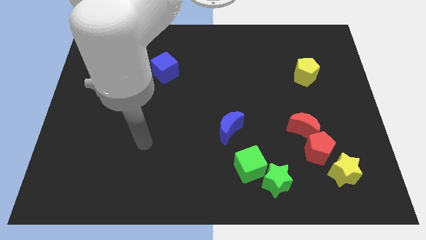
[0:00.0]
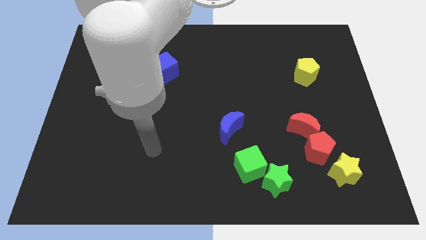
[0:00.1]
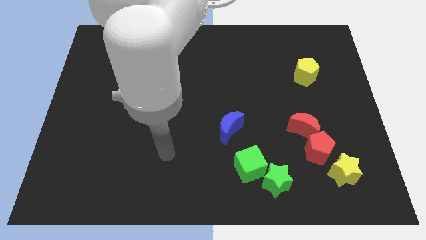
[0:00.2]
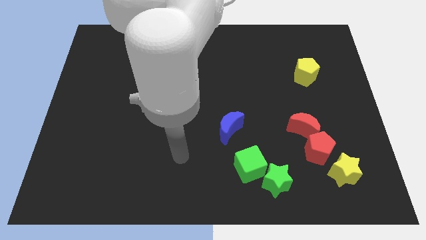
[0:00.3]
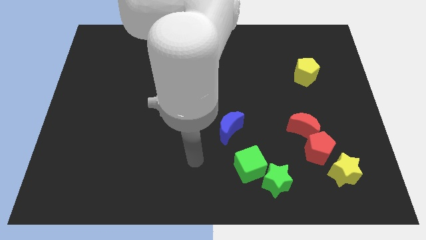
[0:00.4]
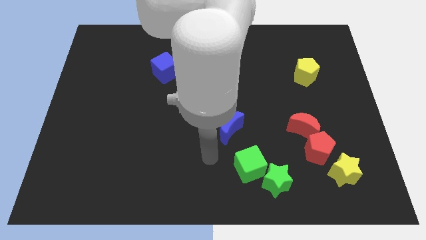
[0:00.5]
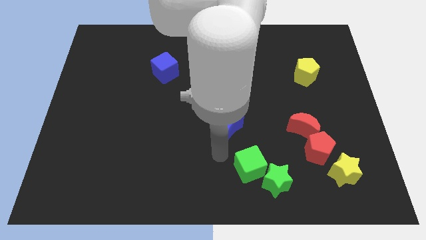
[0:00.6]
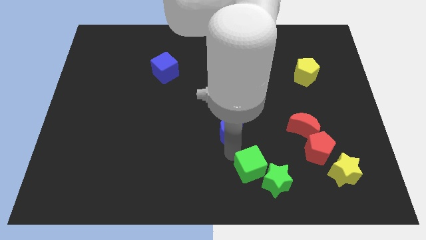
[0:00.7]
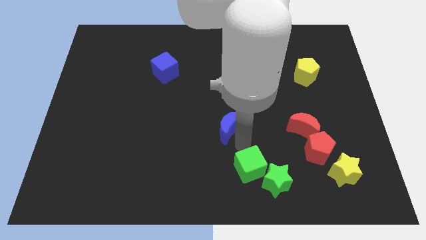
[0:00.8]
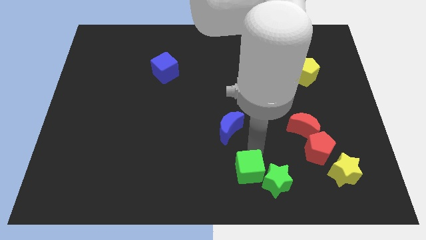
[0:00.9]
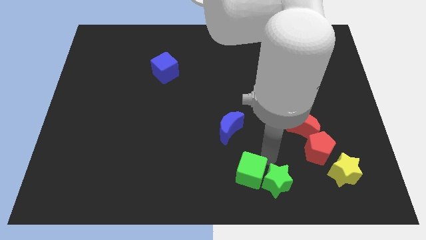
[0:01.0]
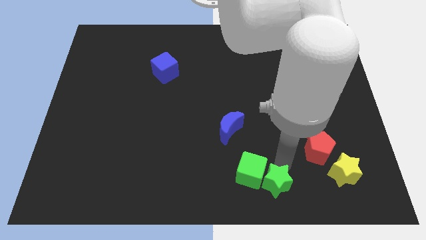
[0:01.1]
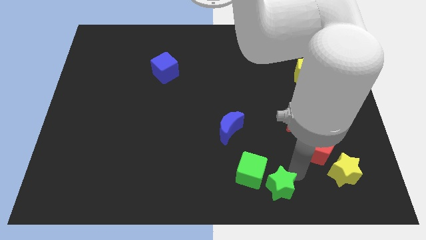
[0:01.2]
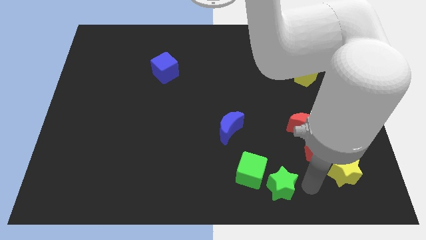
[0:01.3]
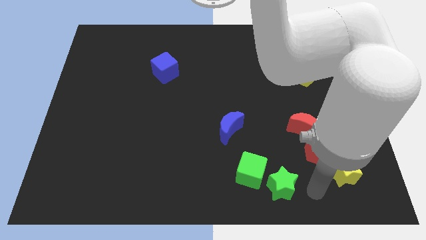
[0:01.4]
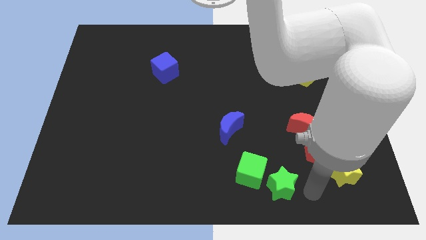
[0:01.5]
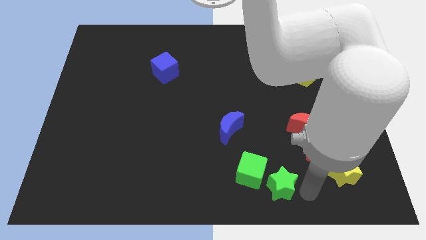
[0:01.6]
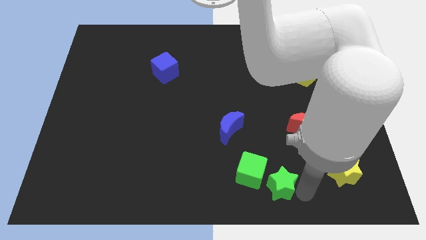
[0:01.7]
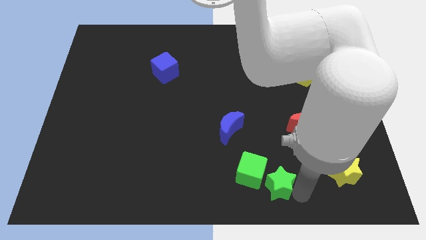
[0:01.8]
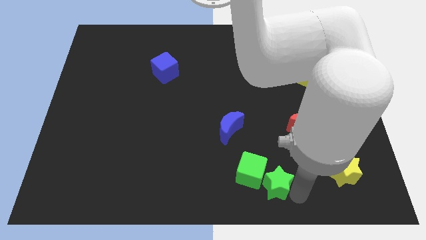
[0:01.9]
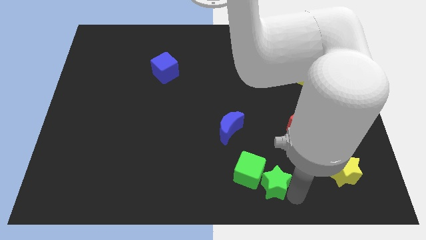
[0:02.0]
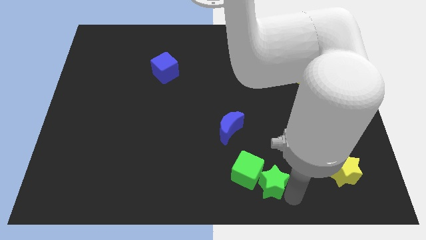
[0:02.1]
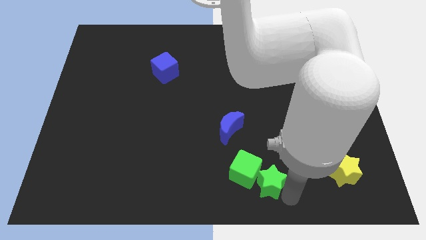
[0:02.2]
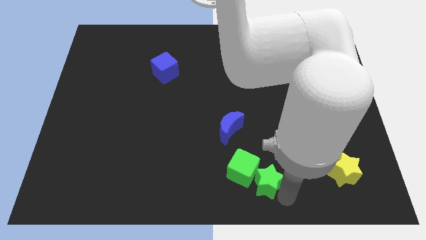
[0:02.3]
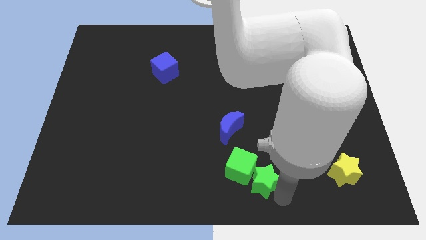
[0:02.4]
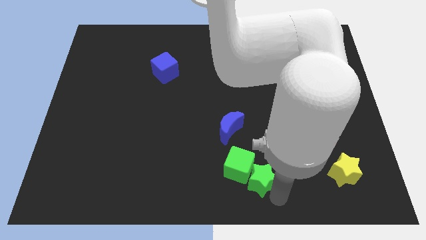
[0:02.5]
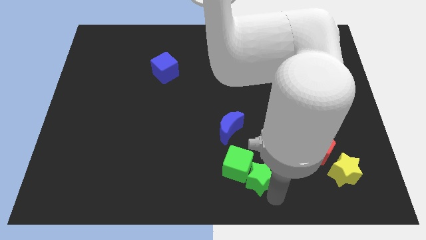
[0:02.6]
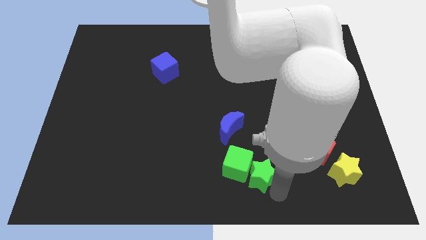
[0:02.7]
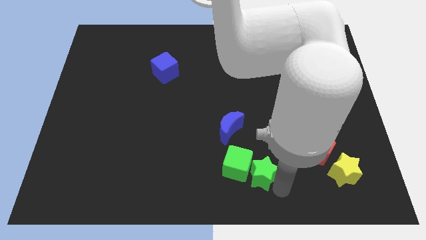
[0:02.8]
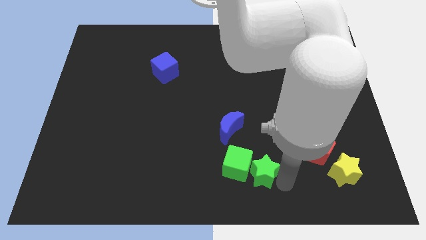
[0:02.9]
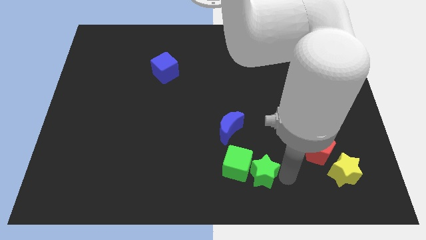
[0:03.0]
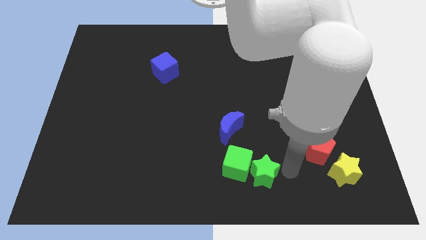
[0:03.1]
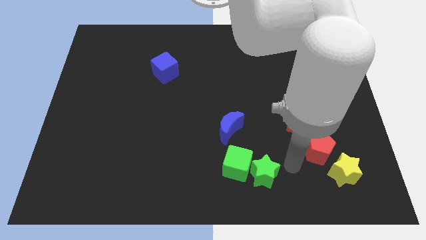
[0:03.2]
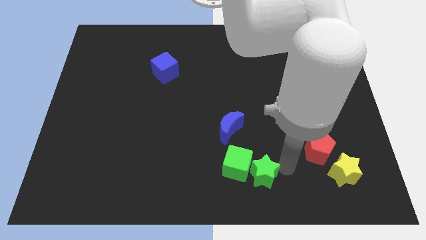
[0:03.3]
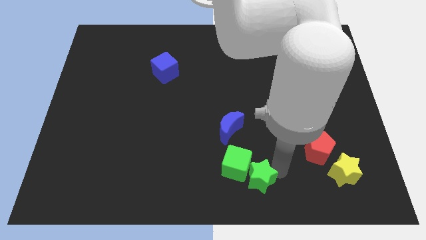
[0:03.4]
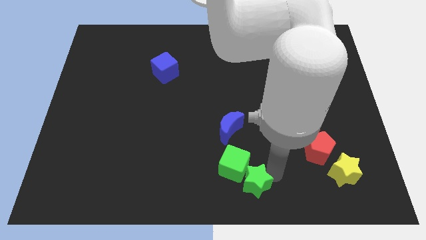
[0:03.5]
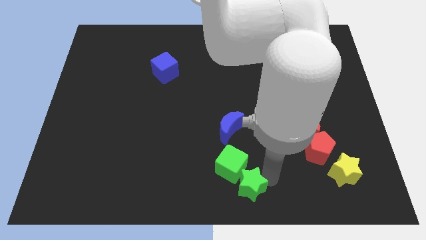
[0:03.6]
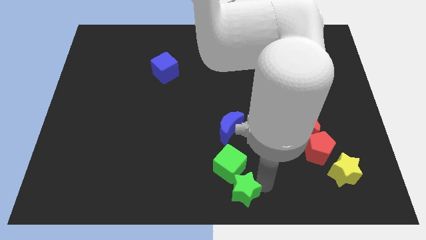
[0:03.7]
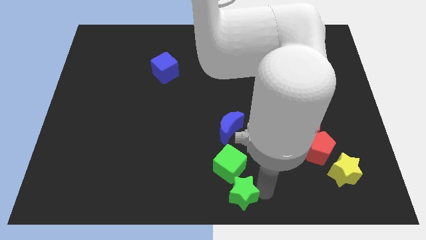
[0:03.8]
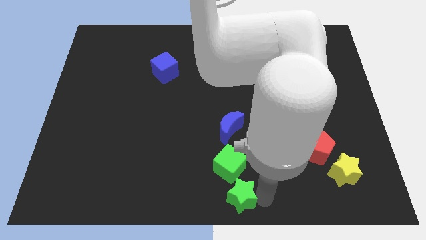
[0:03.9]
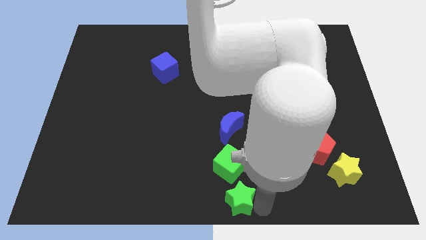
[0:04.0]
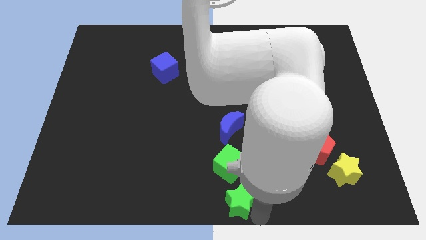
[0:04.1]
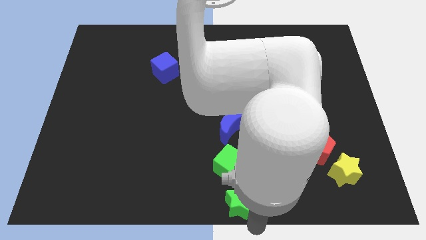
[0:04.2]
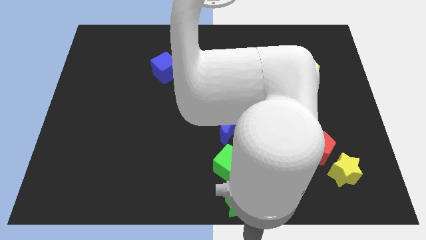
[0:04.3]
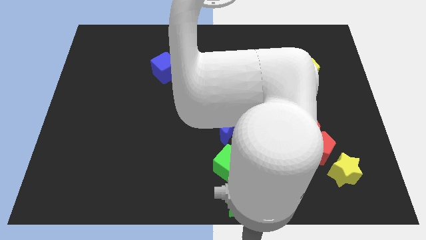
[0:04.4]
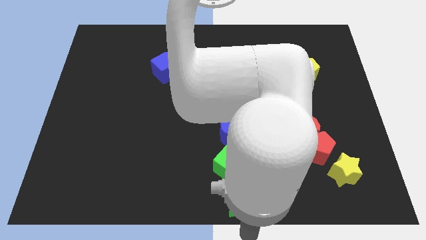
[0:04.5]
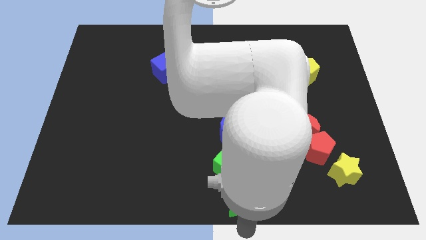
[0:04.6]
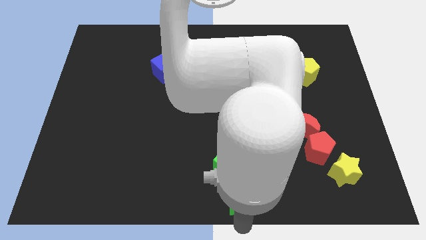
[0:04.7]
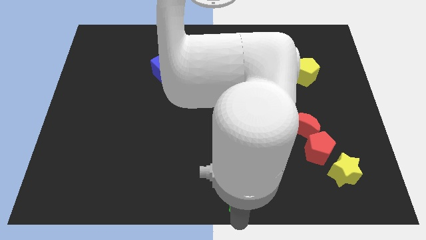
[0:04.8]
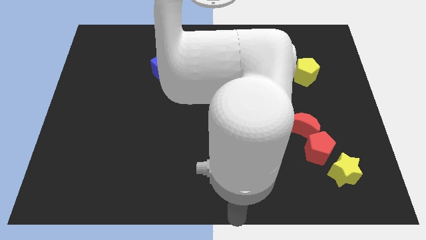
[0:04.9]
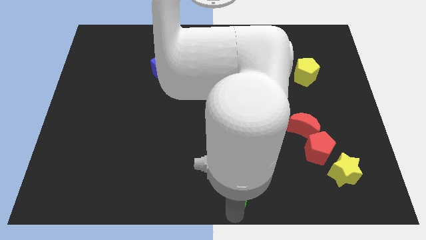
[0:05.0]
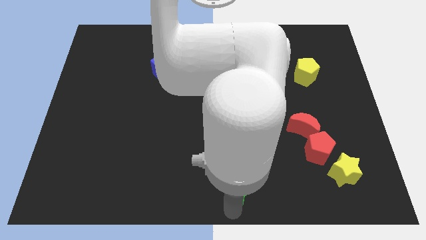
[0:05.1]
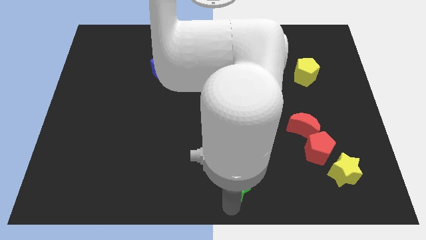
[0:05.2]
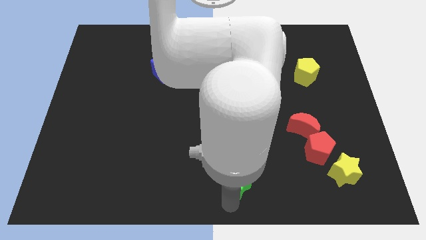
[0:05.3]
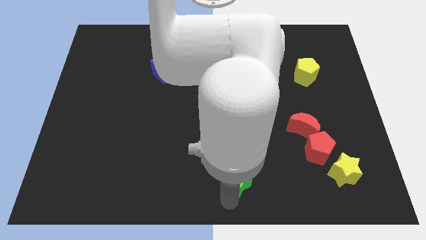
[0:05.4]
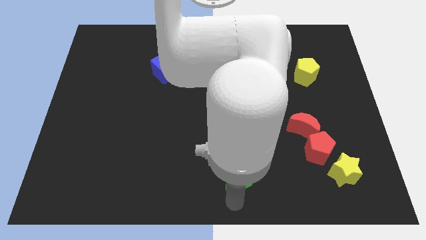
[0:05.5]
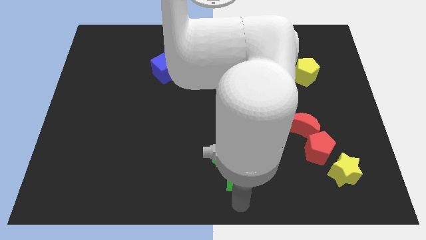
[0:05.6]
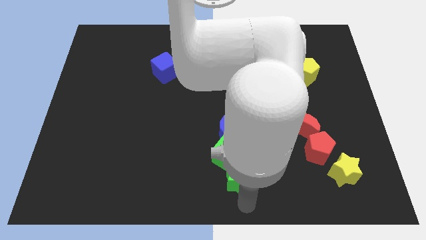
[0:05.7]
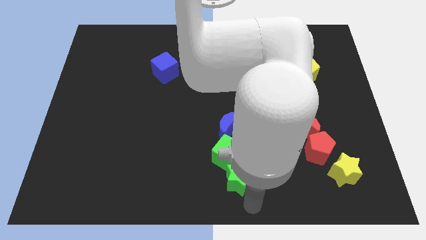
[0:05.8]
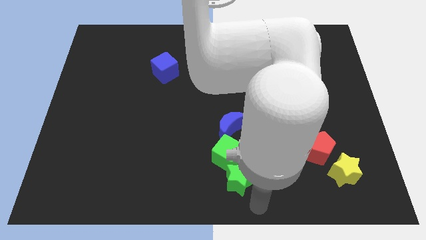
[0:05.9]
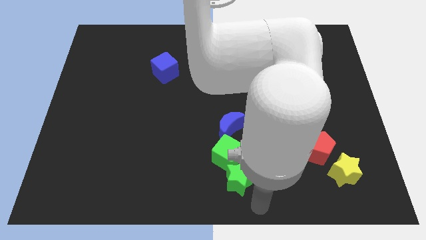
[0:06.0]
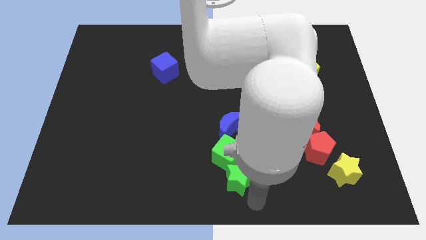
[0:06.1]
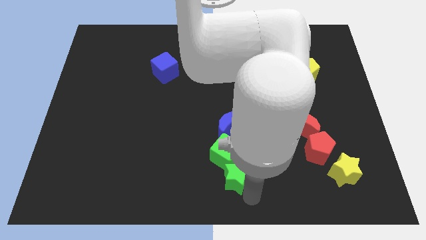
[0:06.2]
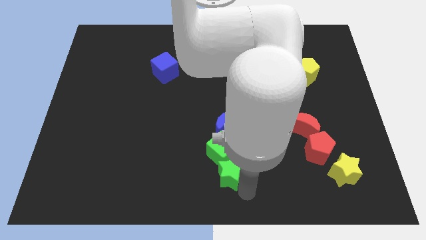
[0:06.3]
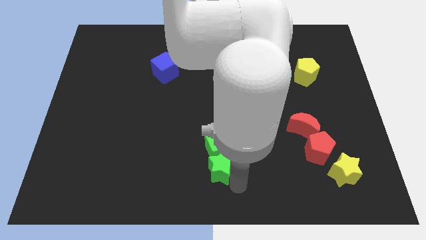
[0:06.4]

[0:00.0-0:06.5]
slide the green star somewhat diagonally upwards and to the left

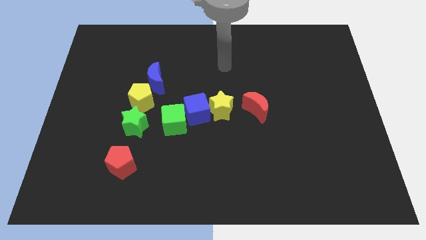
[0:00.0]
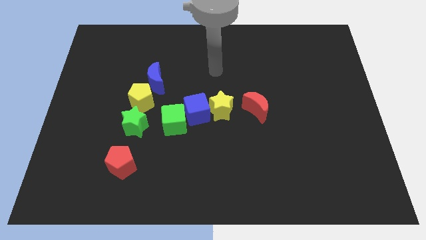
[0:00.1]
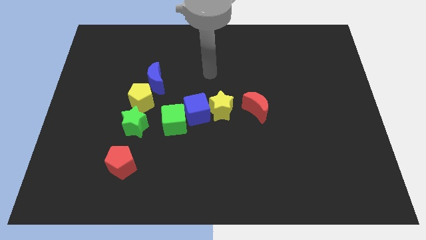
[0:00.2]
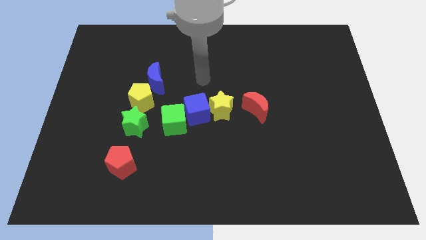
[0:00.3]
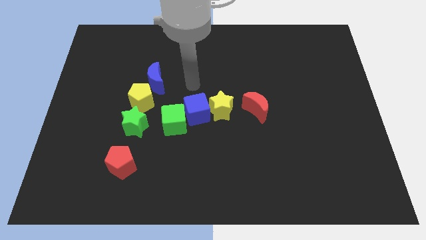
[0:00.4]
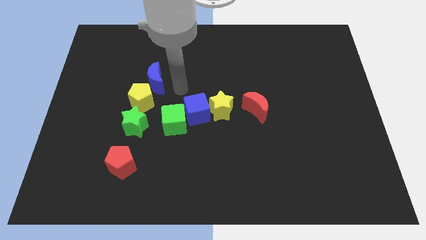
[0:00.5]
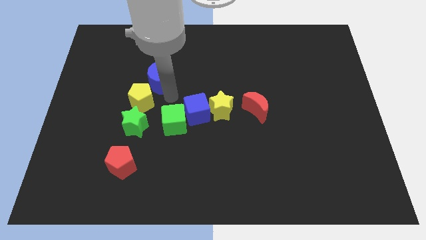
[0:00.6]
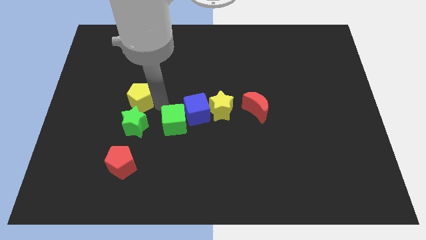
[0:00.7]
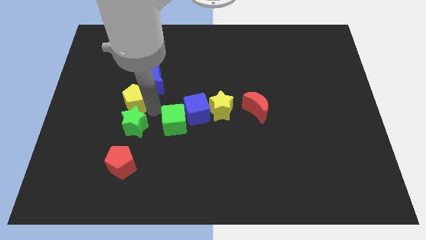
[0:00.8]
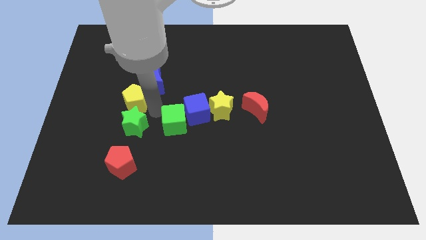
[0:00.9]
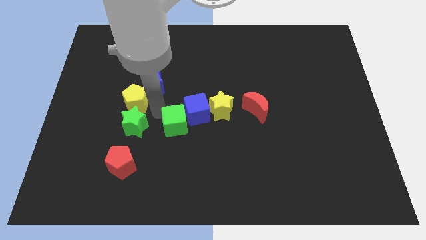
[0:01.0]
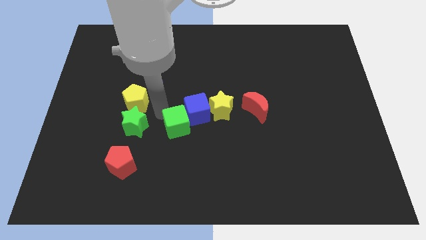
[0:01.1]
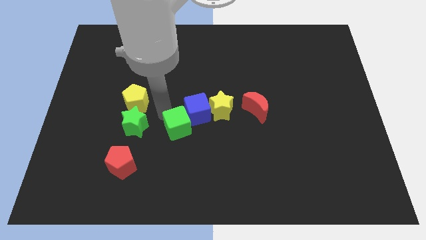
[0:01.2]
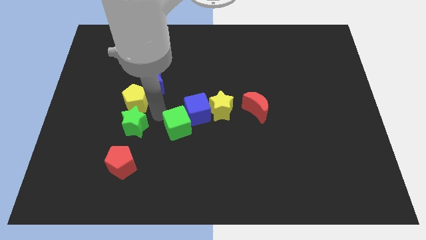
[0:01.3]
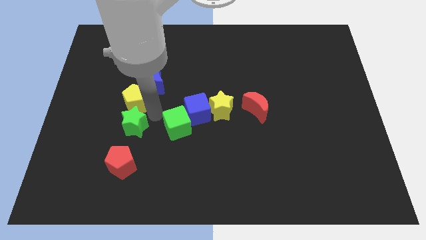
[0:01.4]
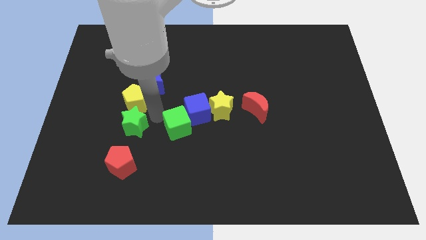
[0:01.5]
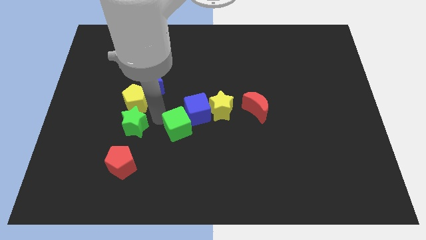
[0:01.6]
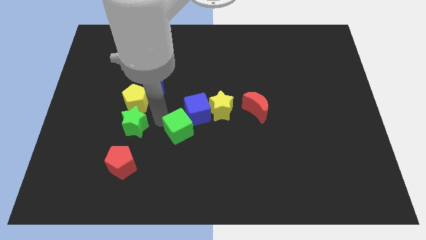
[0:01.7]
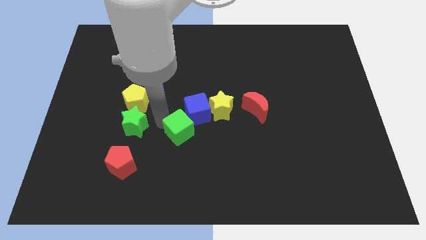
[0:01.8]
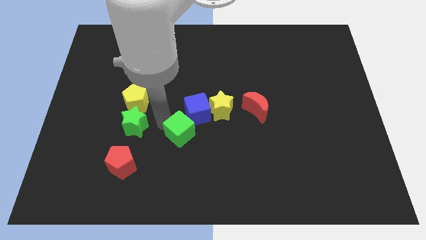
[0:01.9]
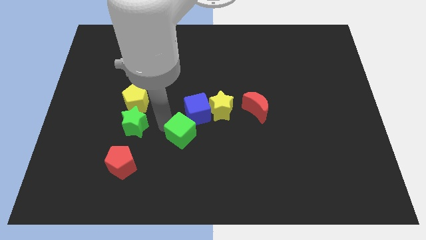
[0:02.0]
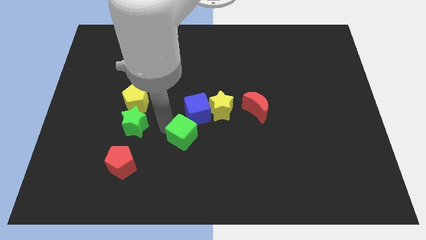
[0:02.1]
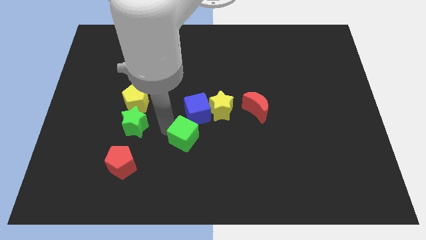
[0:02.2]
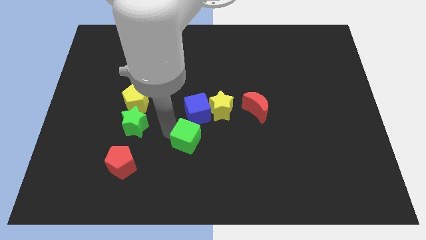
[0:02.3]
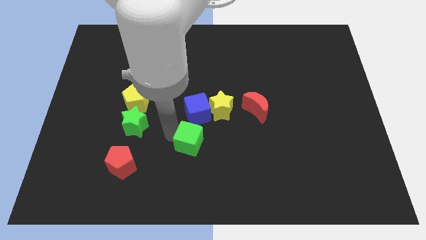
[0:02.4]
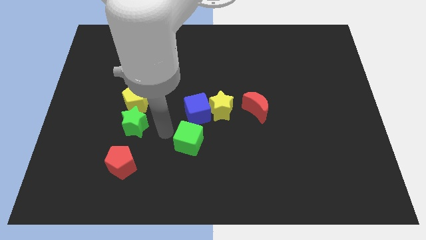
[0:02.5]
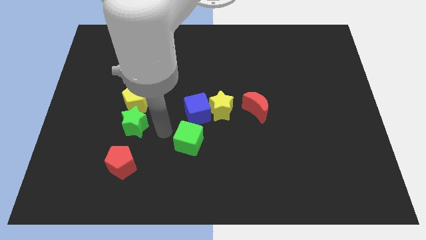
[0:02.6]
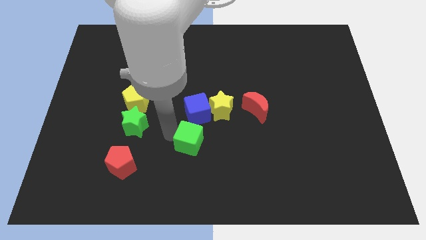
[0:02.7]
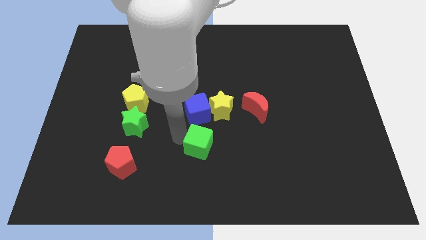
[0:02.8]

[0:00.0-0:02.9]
slide the green cube slightly diagonally down and to the right
